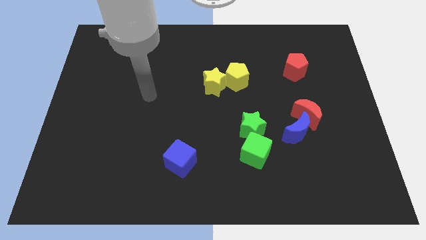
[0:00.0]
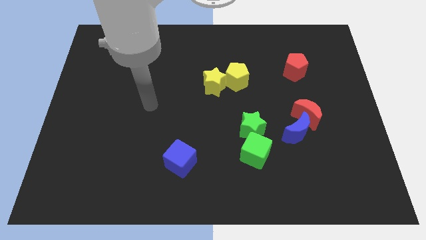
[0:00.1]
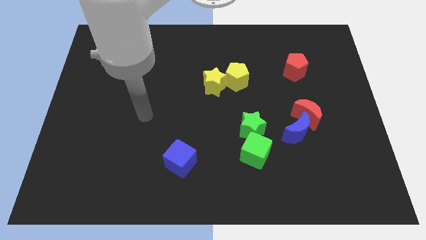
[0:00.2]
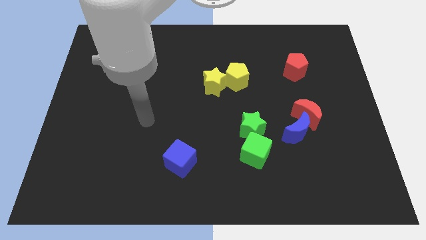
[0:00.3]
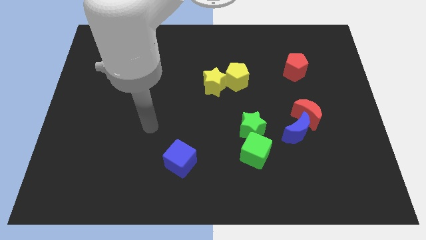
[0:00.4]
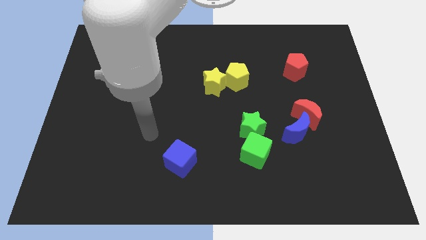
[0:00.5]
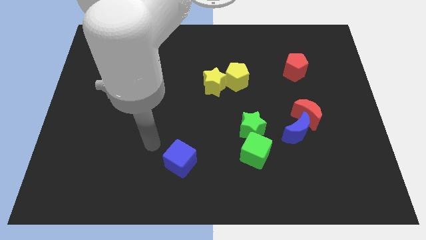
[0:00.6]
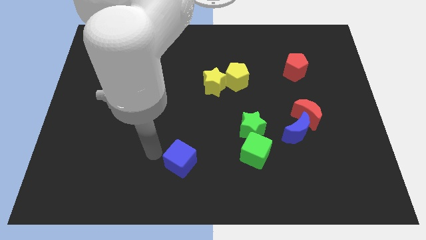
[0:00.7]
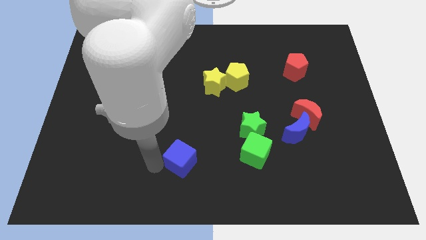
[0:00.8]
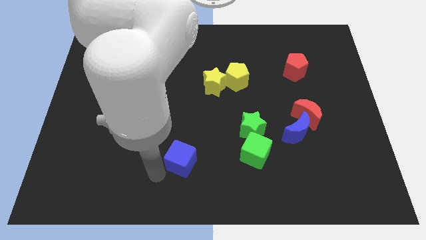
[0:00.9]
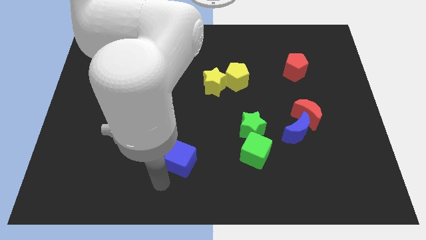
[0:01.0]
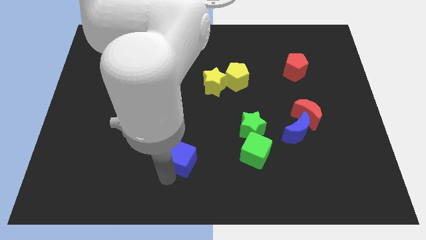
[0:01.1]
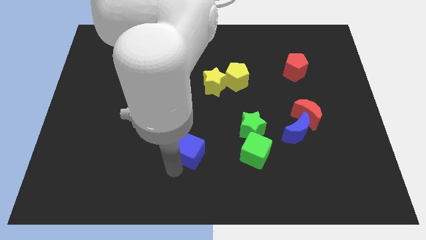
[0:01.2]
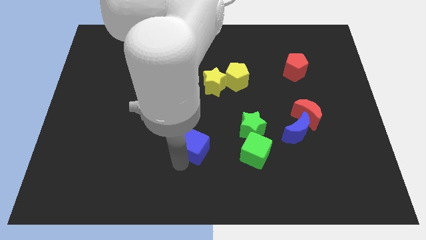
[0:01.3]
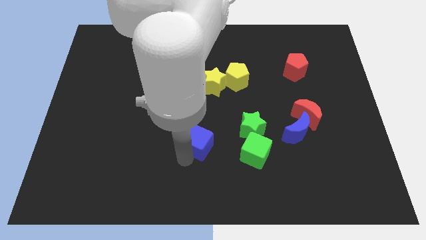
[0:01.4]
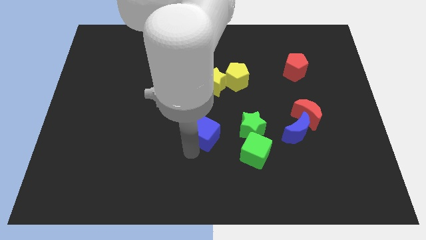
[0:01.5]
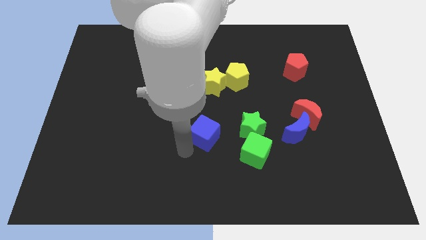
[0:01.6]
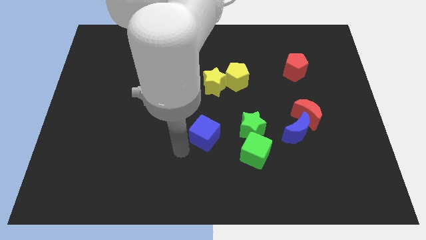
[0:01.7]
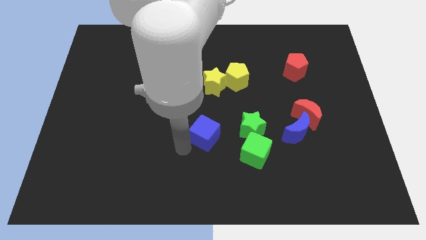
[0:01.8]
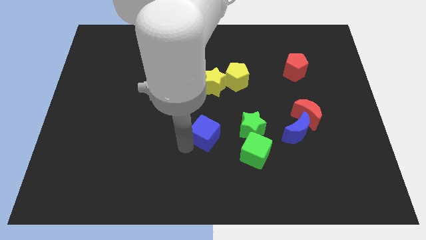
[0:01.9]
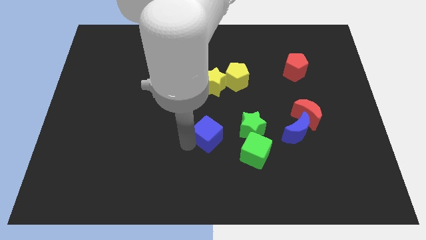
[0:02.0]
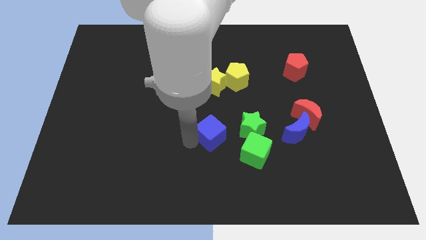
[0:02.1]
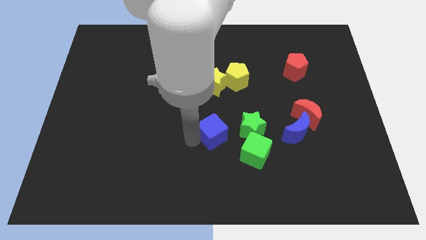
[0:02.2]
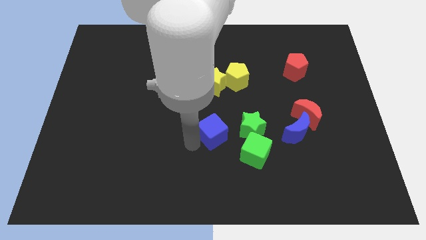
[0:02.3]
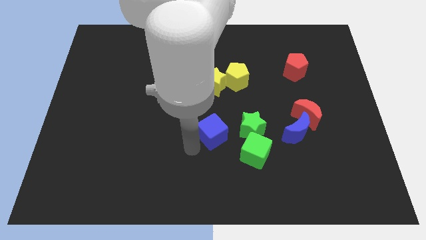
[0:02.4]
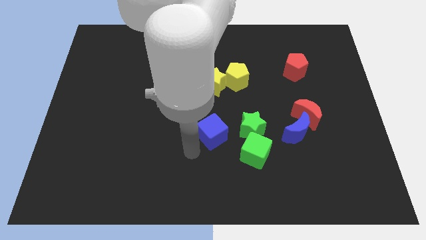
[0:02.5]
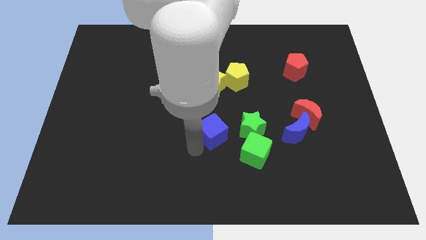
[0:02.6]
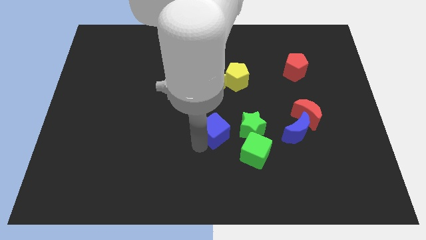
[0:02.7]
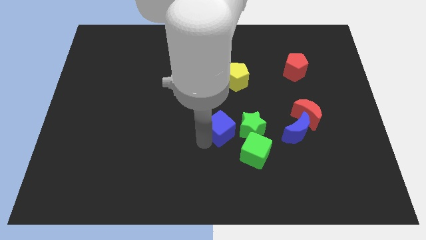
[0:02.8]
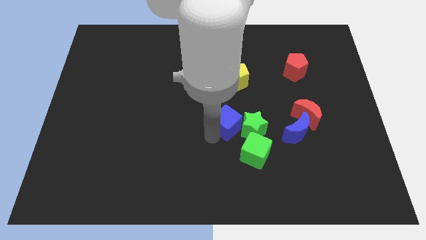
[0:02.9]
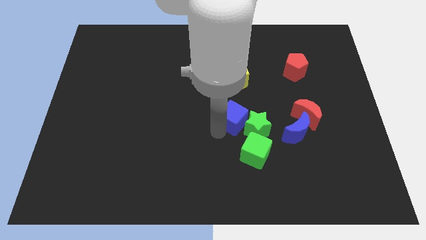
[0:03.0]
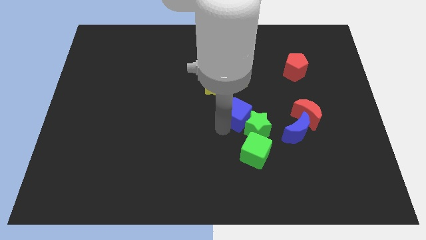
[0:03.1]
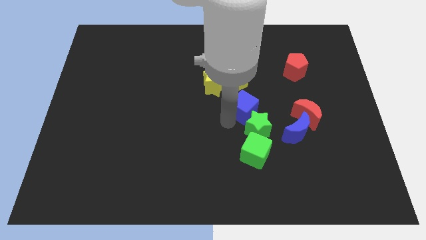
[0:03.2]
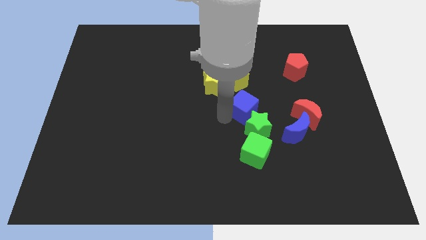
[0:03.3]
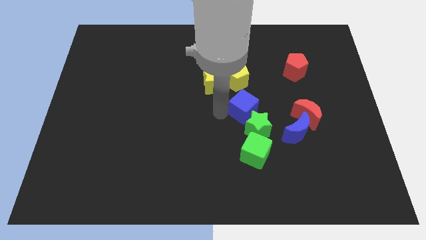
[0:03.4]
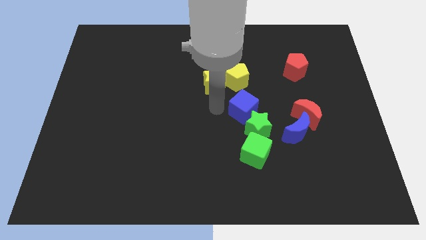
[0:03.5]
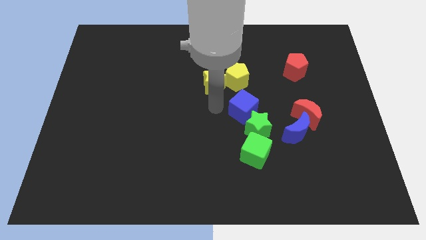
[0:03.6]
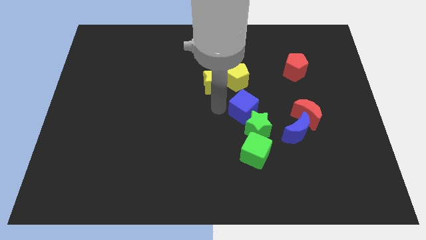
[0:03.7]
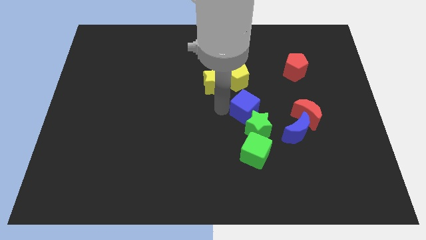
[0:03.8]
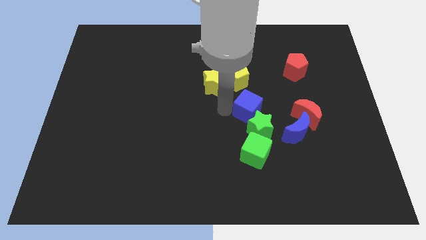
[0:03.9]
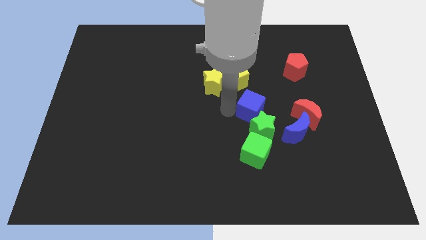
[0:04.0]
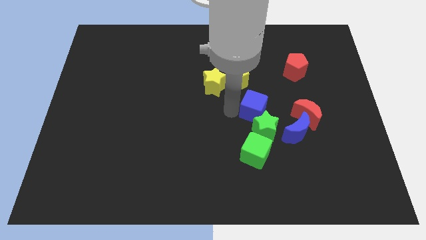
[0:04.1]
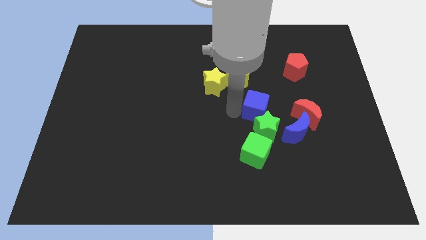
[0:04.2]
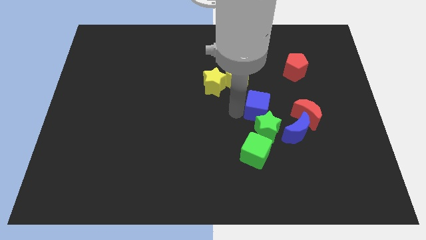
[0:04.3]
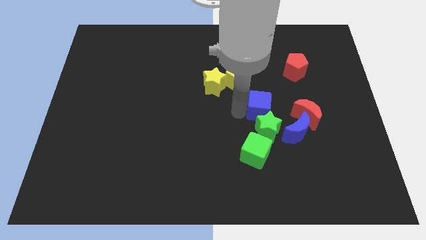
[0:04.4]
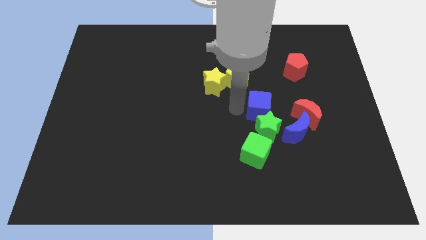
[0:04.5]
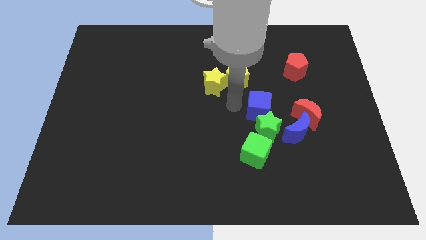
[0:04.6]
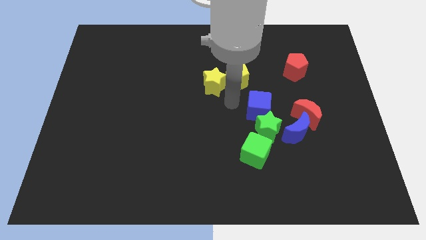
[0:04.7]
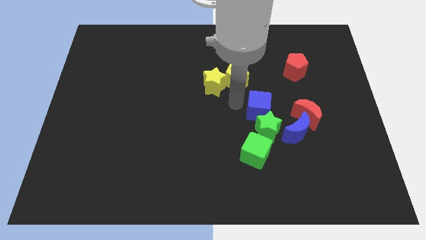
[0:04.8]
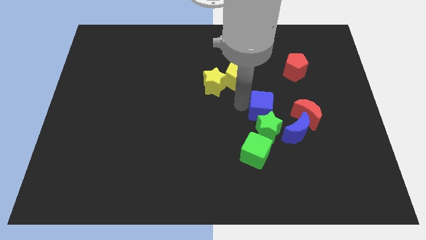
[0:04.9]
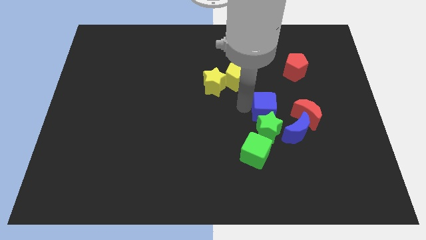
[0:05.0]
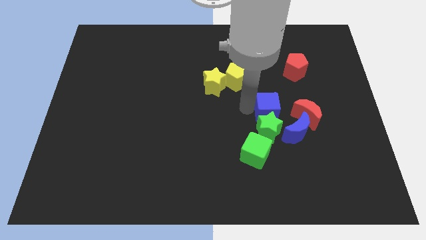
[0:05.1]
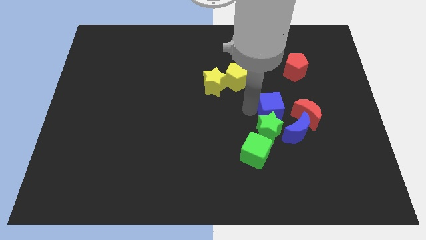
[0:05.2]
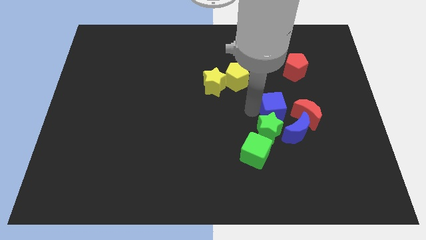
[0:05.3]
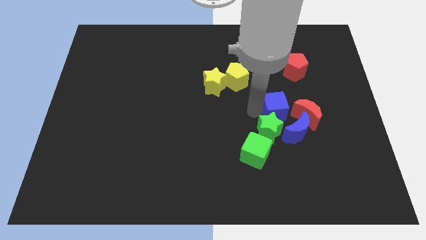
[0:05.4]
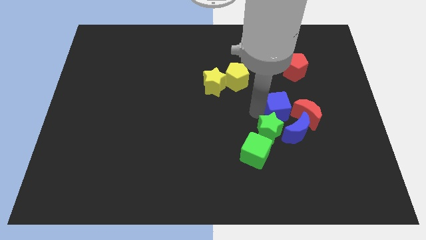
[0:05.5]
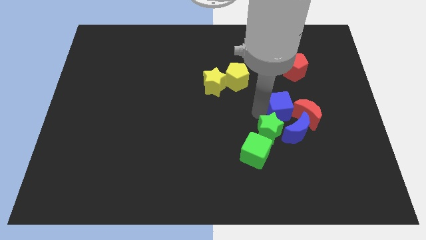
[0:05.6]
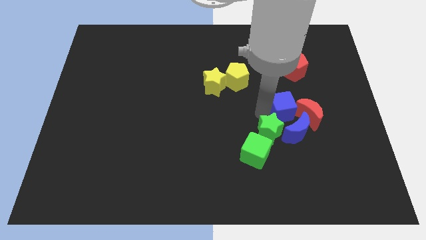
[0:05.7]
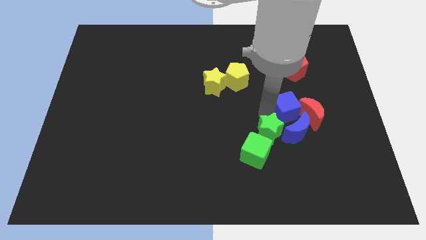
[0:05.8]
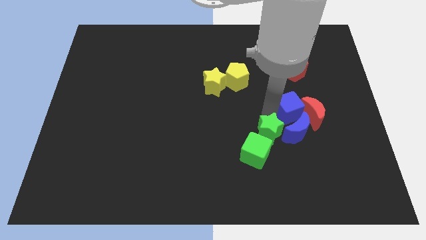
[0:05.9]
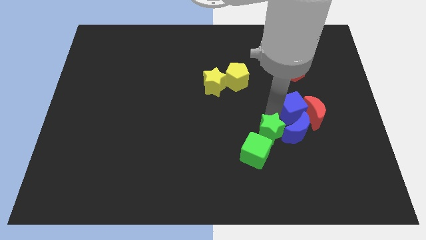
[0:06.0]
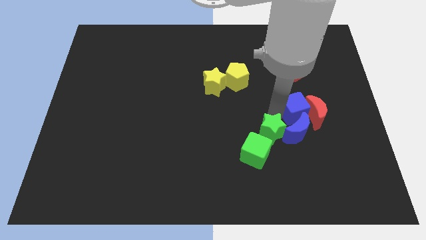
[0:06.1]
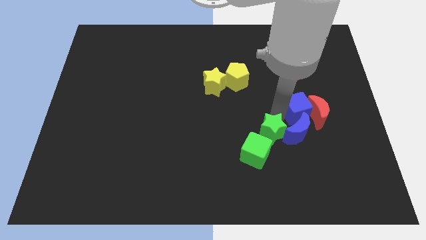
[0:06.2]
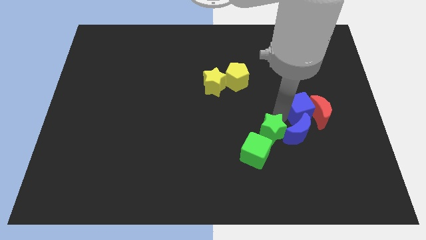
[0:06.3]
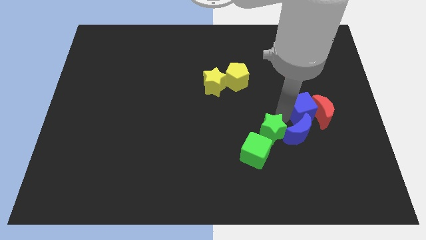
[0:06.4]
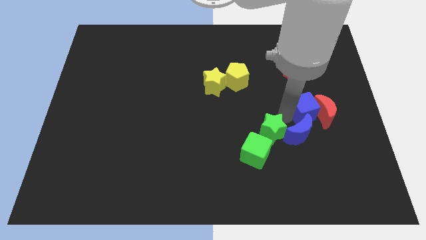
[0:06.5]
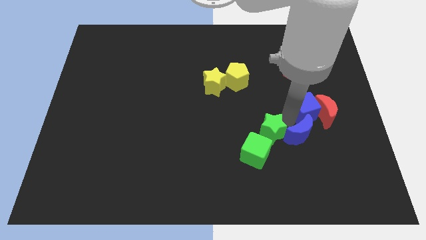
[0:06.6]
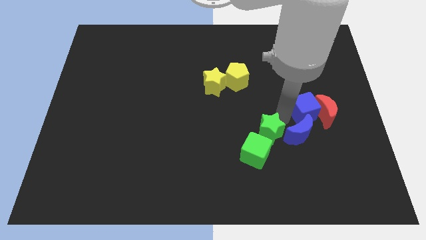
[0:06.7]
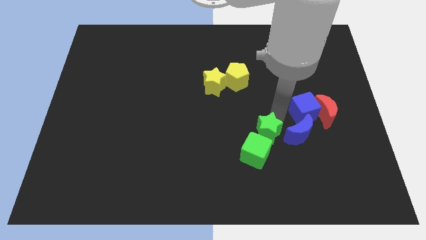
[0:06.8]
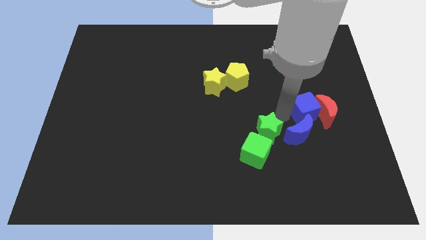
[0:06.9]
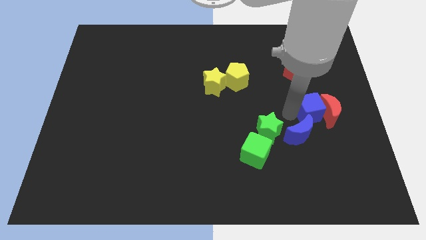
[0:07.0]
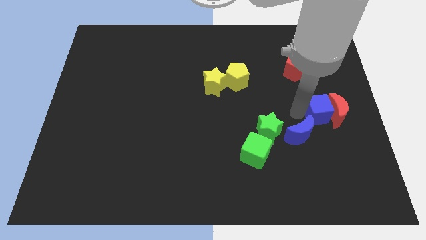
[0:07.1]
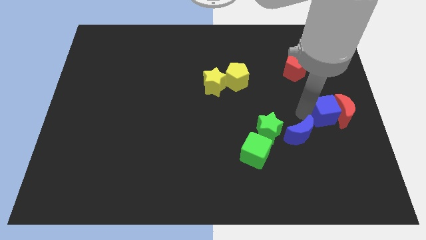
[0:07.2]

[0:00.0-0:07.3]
slide the blue cube to the center right

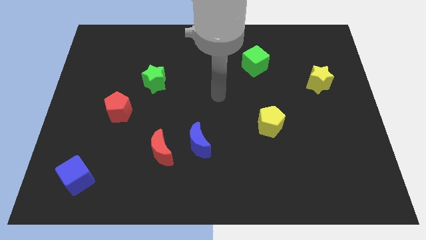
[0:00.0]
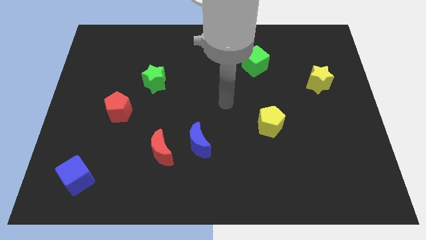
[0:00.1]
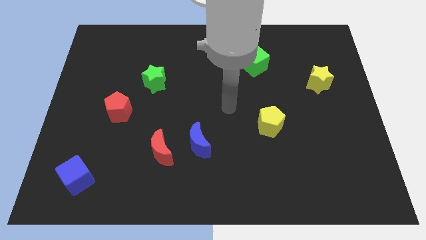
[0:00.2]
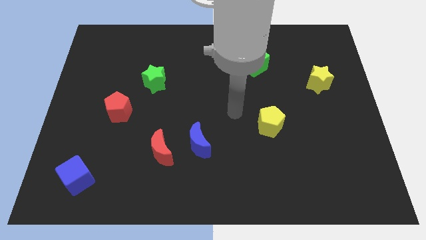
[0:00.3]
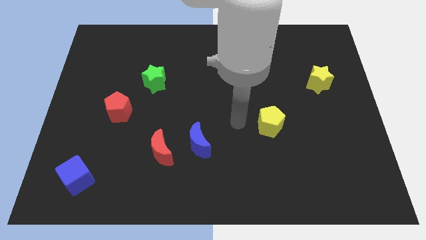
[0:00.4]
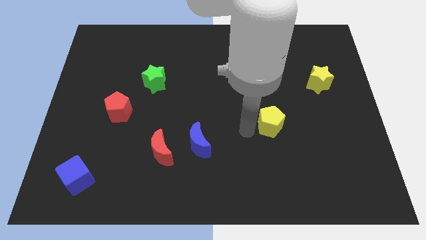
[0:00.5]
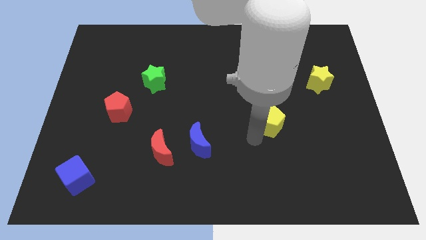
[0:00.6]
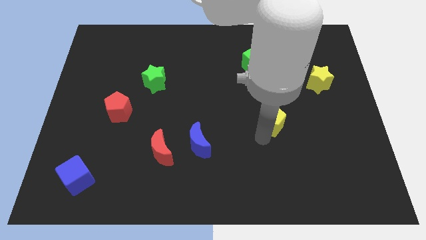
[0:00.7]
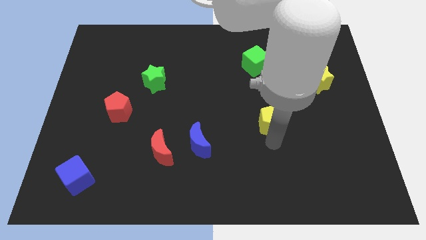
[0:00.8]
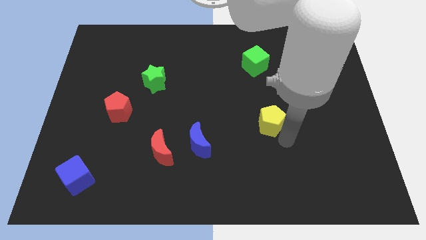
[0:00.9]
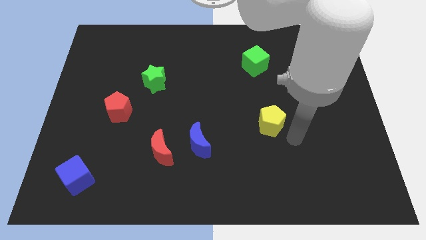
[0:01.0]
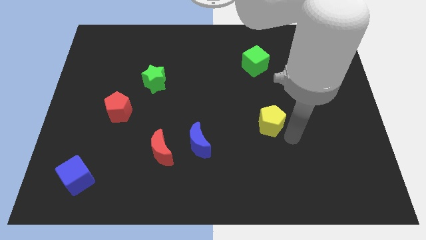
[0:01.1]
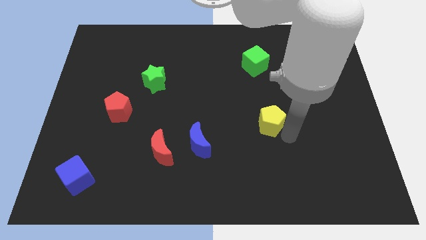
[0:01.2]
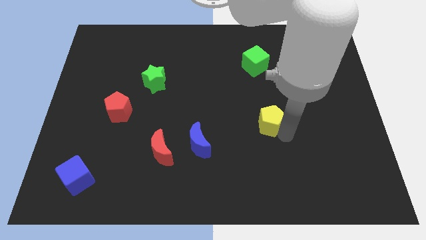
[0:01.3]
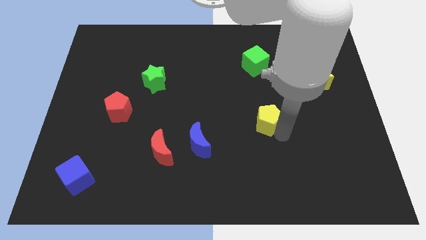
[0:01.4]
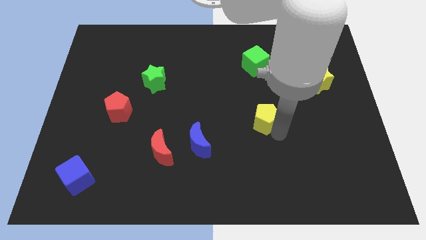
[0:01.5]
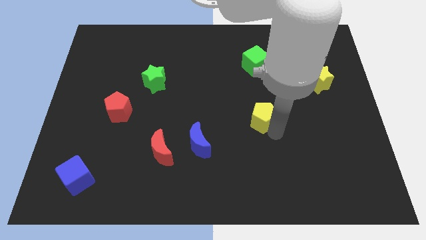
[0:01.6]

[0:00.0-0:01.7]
put the yellow pentagon to the center of the board
